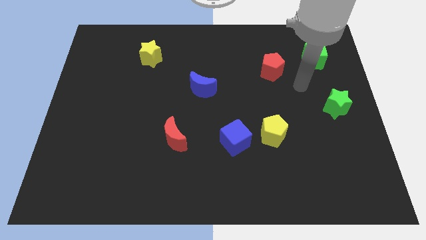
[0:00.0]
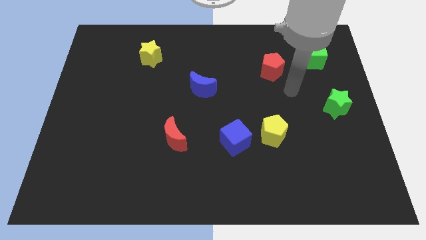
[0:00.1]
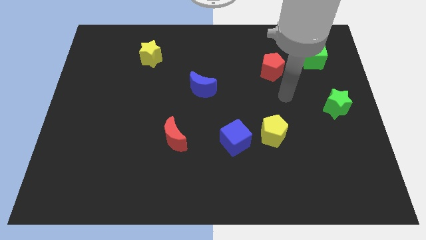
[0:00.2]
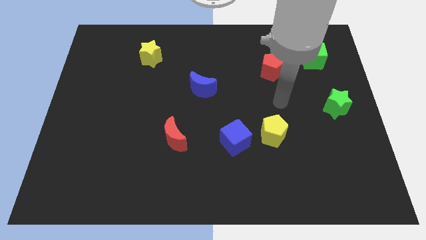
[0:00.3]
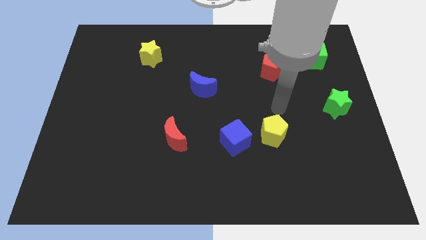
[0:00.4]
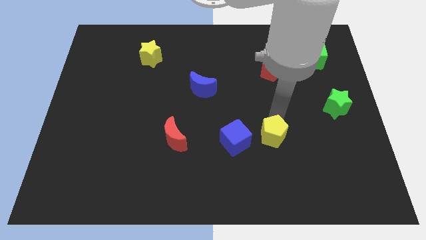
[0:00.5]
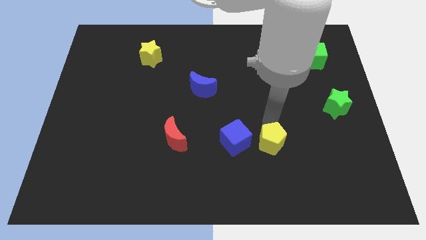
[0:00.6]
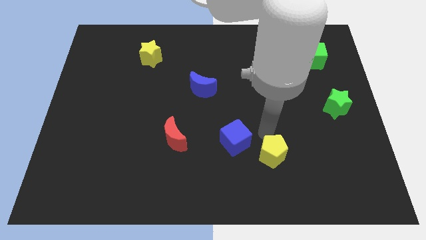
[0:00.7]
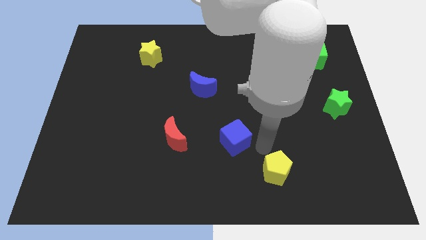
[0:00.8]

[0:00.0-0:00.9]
separate the blue cube from the yellow pentagon

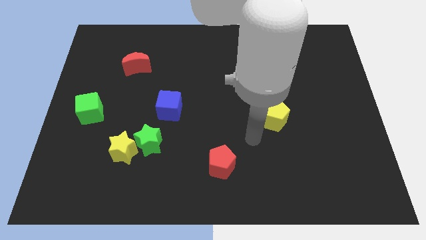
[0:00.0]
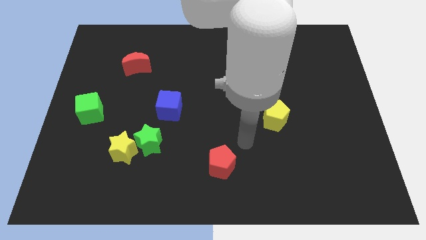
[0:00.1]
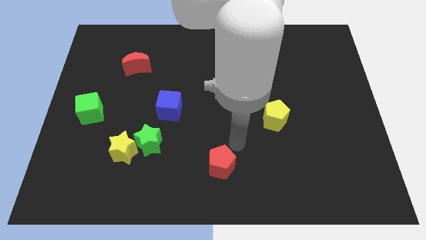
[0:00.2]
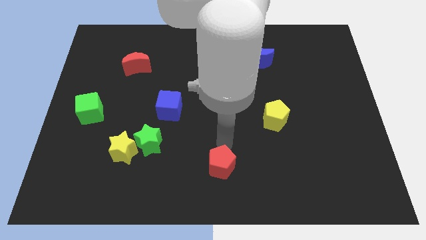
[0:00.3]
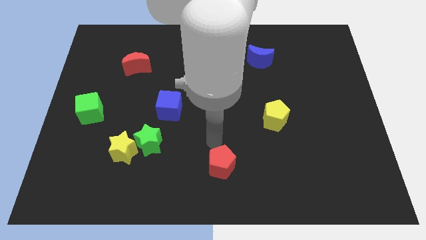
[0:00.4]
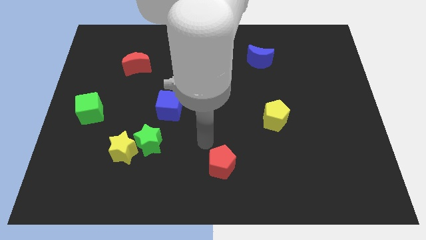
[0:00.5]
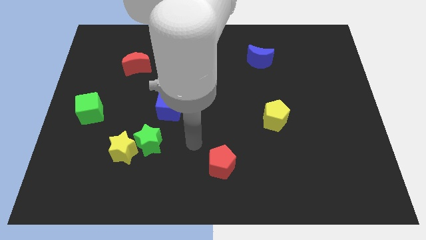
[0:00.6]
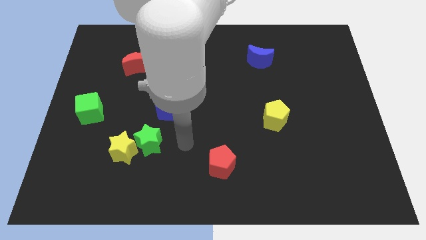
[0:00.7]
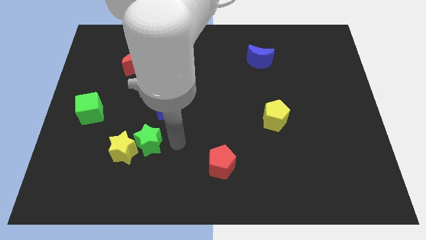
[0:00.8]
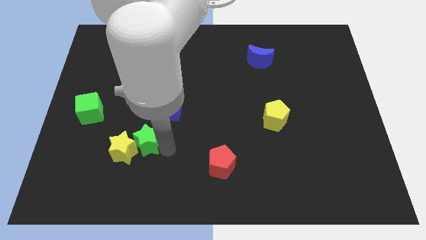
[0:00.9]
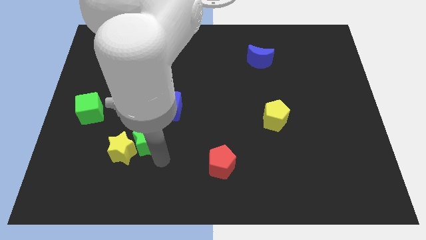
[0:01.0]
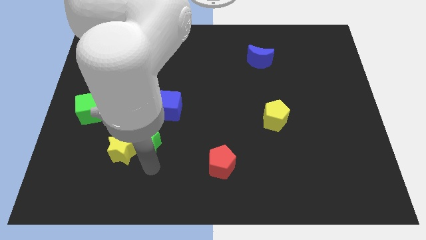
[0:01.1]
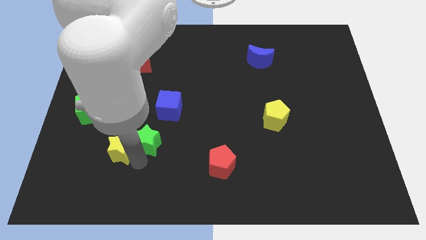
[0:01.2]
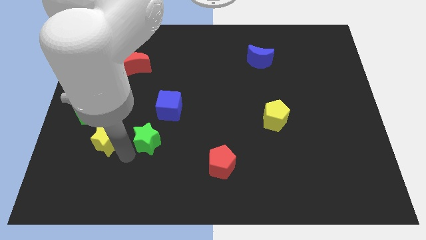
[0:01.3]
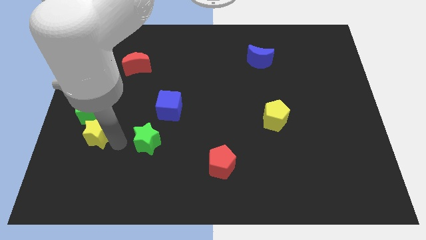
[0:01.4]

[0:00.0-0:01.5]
pull the green star apart from the yellow star

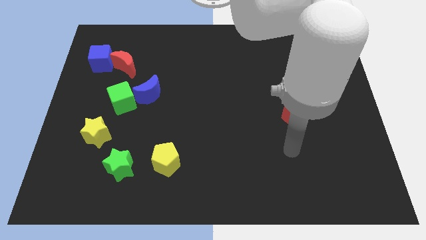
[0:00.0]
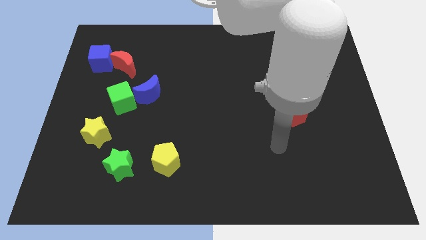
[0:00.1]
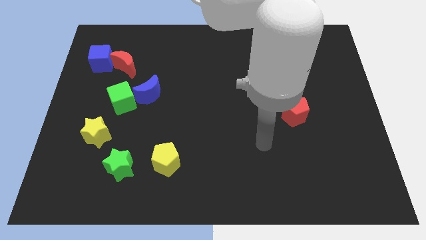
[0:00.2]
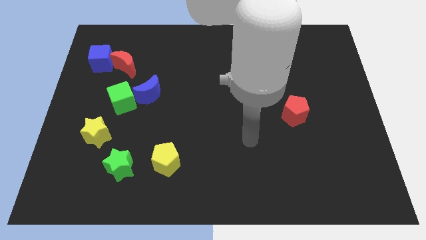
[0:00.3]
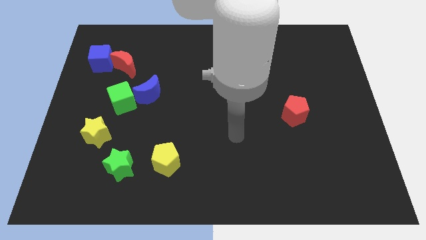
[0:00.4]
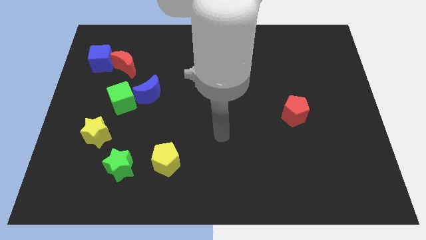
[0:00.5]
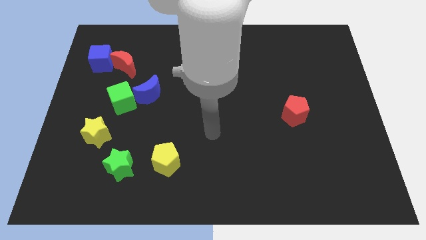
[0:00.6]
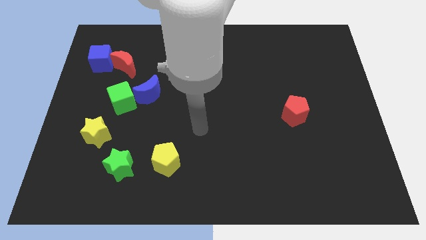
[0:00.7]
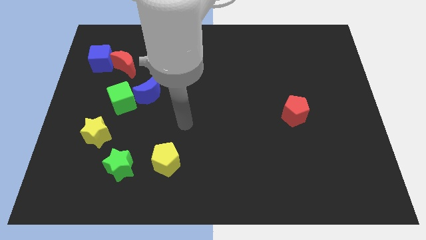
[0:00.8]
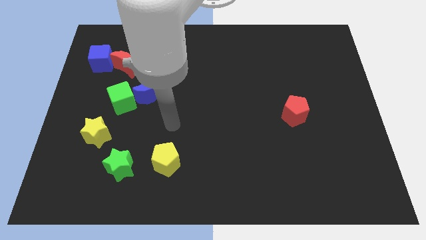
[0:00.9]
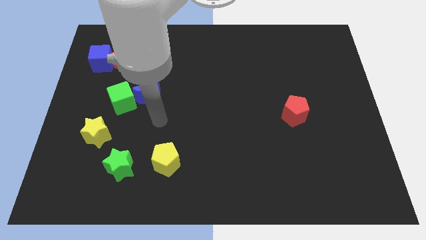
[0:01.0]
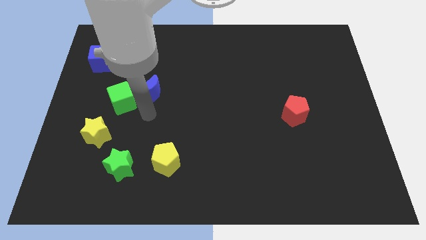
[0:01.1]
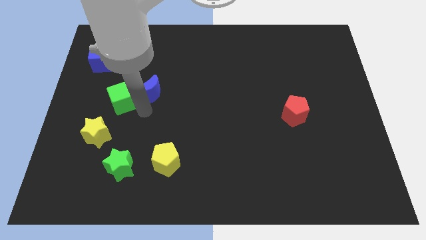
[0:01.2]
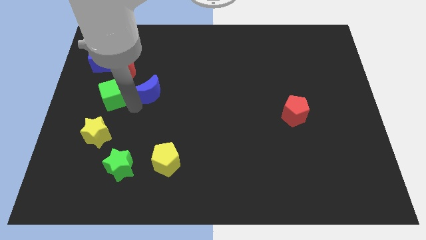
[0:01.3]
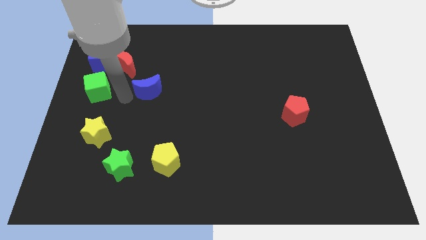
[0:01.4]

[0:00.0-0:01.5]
pull the blue moon apart from the green cube

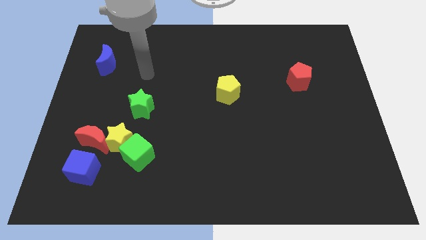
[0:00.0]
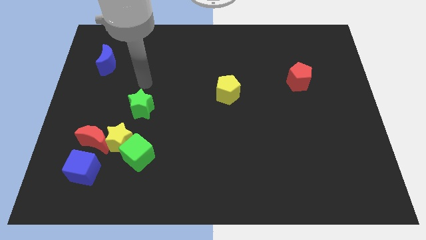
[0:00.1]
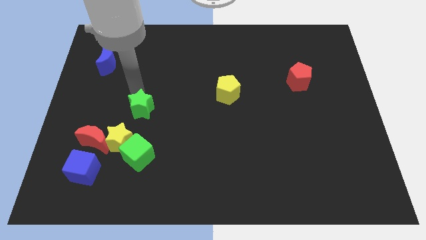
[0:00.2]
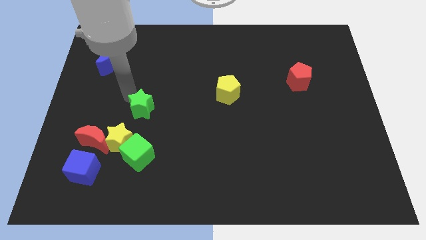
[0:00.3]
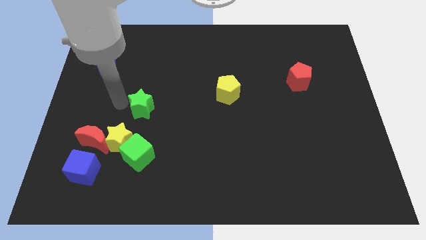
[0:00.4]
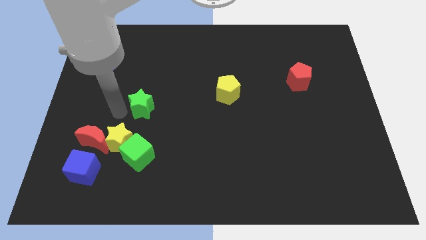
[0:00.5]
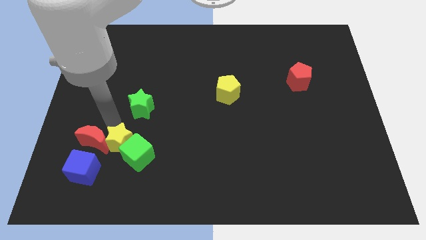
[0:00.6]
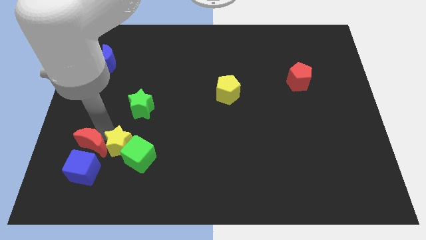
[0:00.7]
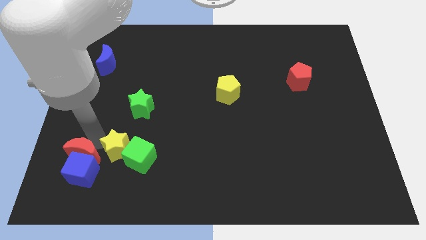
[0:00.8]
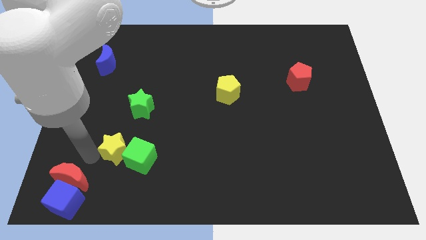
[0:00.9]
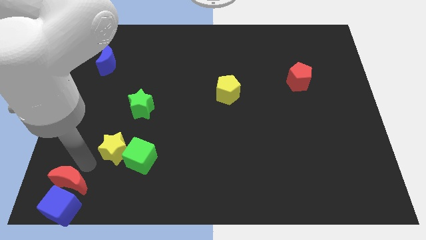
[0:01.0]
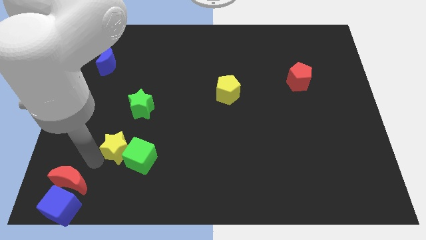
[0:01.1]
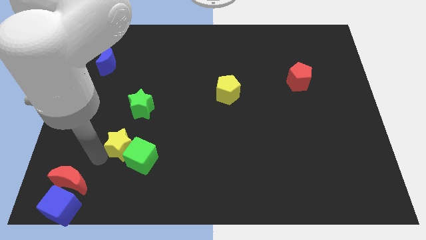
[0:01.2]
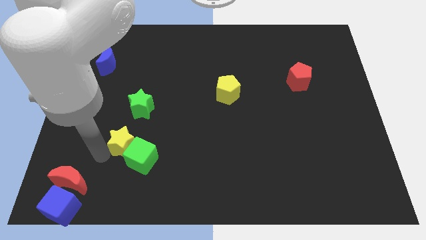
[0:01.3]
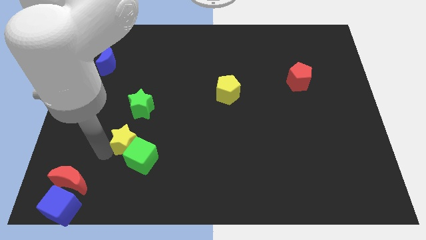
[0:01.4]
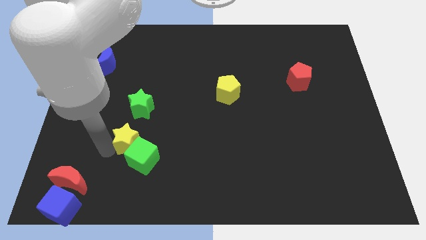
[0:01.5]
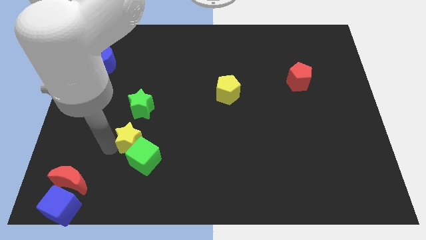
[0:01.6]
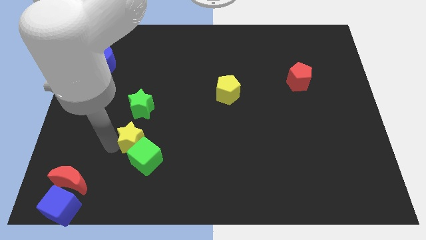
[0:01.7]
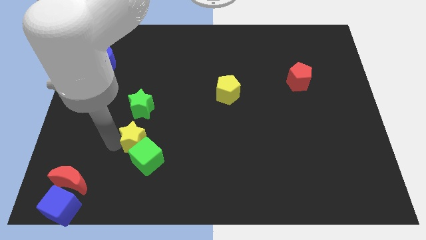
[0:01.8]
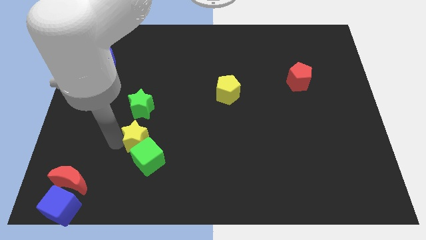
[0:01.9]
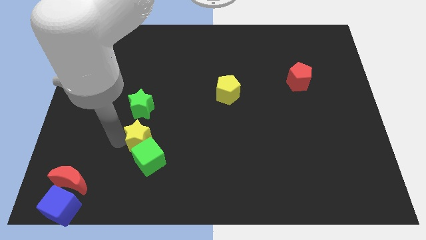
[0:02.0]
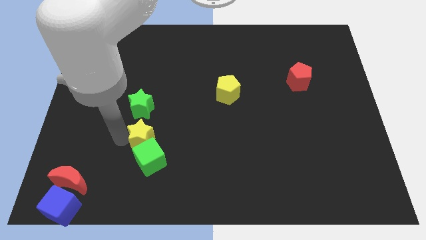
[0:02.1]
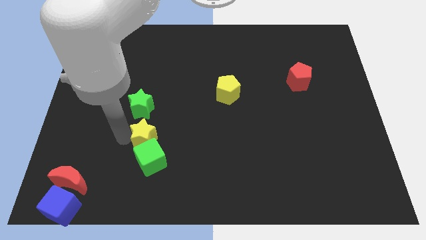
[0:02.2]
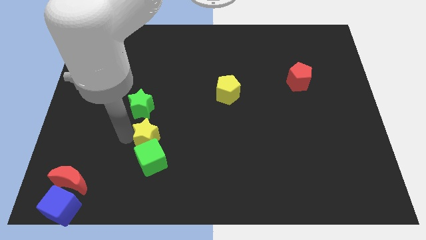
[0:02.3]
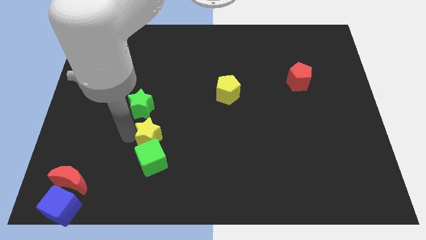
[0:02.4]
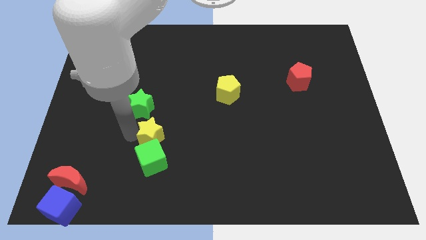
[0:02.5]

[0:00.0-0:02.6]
pull the yellow star apart from the clump

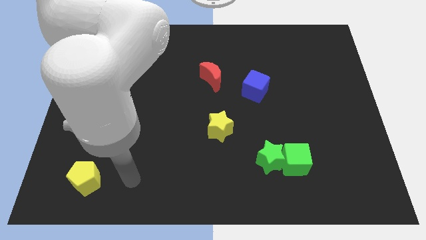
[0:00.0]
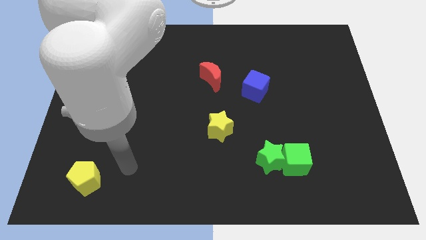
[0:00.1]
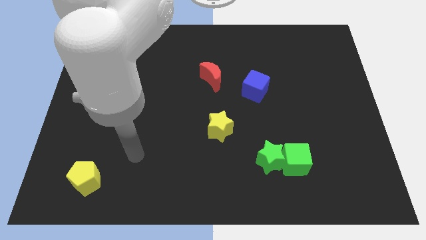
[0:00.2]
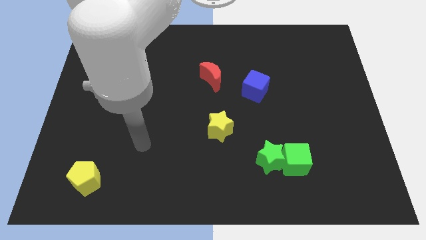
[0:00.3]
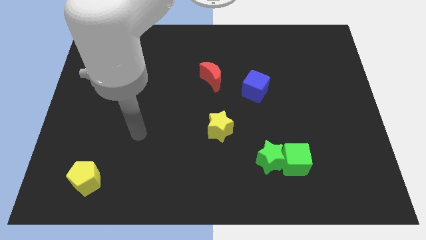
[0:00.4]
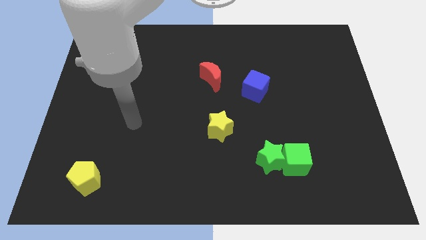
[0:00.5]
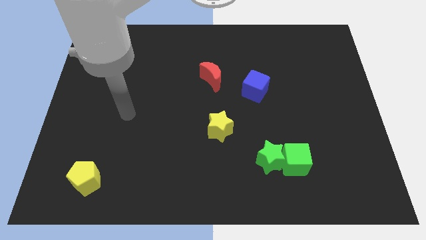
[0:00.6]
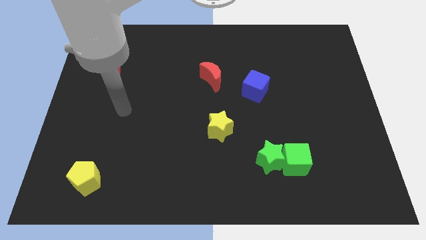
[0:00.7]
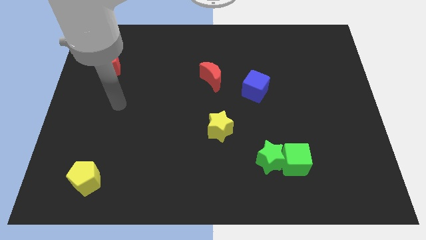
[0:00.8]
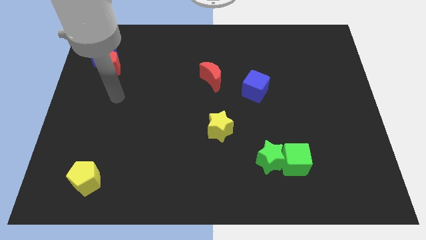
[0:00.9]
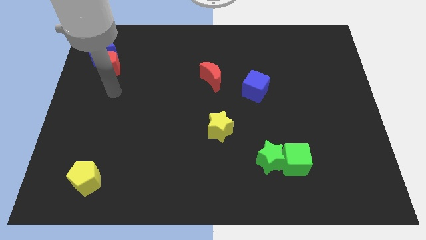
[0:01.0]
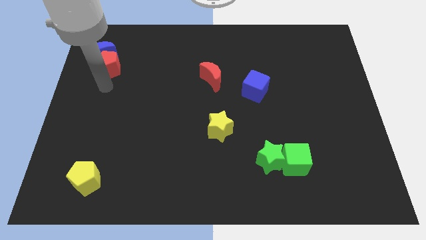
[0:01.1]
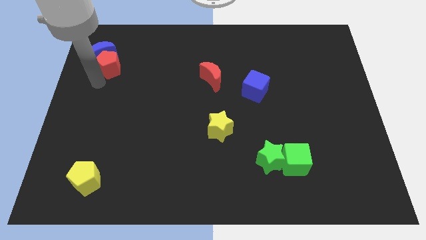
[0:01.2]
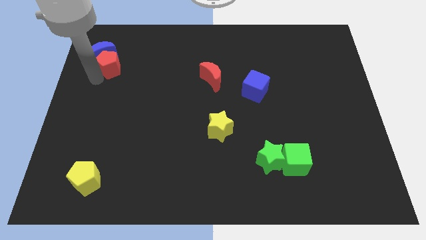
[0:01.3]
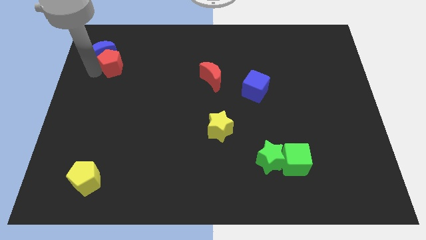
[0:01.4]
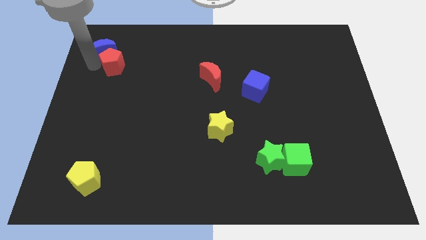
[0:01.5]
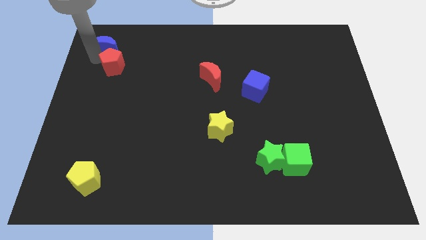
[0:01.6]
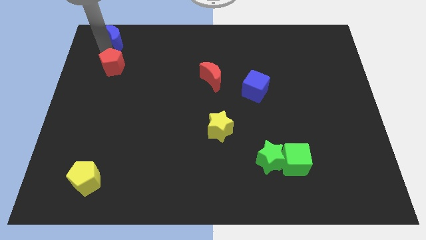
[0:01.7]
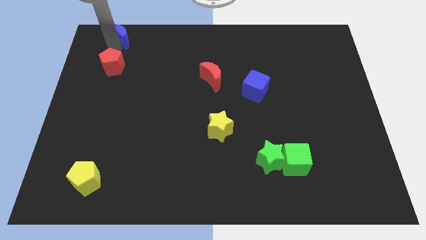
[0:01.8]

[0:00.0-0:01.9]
separate the red pentagon from the blue moon

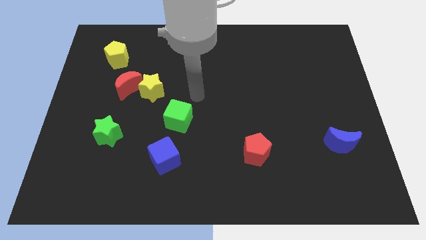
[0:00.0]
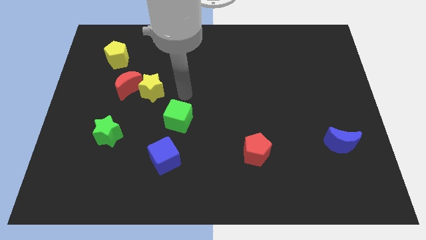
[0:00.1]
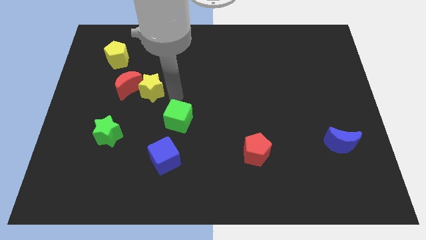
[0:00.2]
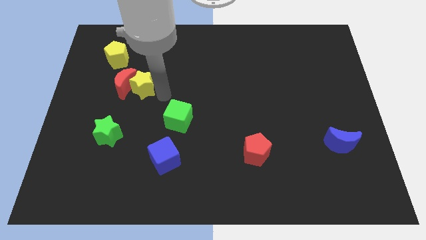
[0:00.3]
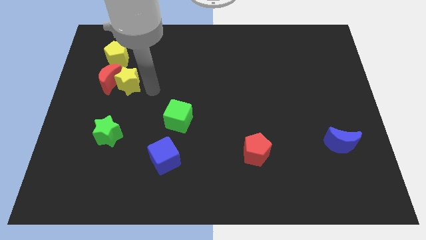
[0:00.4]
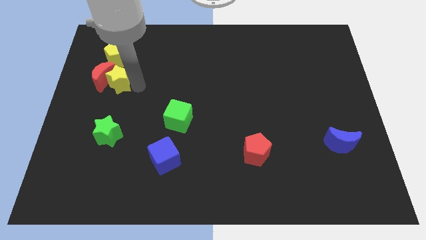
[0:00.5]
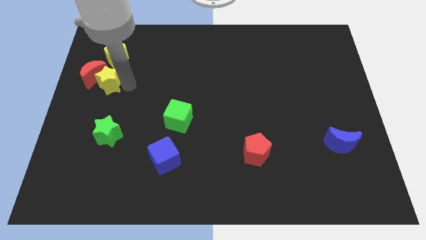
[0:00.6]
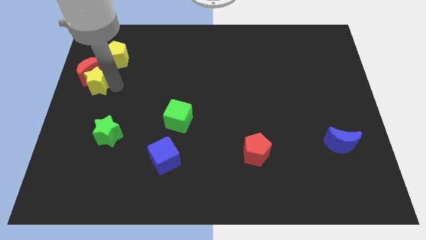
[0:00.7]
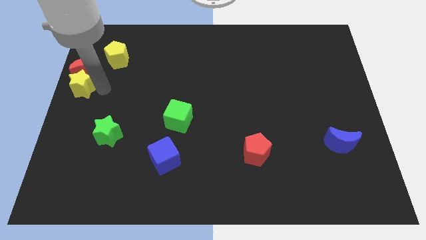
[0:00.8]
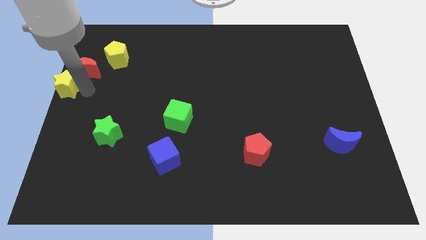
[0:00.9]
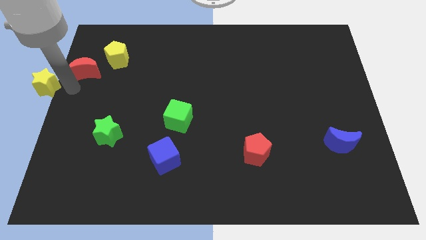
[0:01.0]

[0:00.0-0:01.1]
separate the red moon from the yellow star
